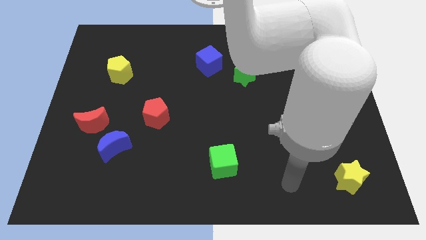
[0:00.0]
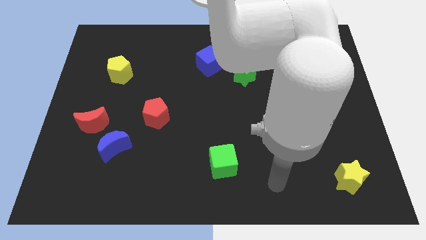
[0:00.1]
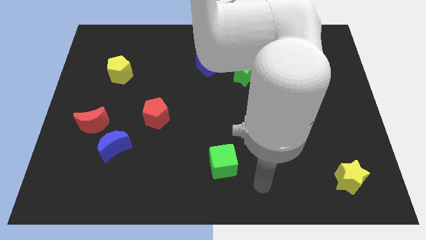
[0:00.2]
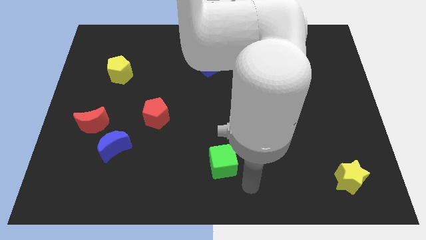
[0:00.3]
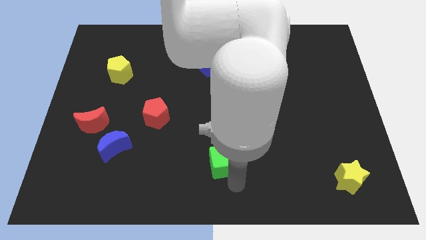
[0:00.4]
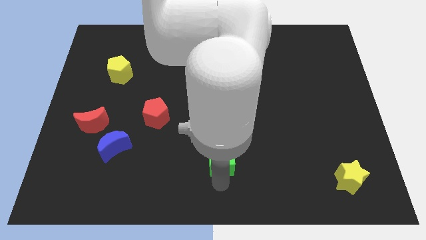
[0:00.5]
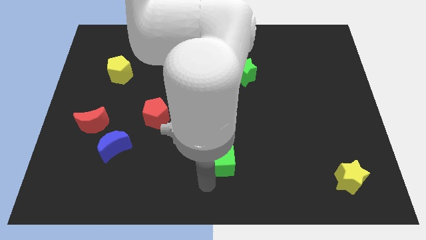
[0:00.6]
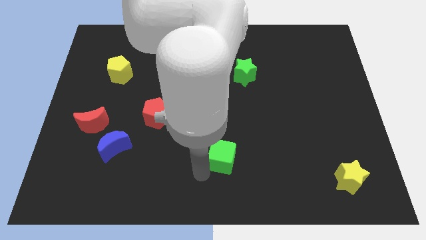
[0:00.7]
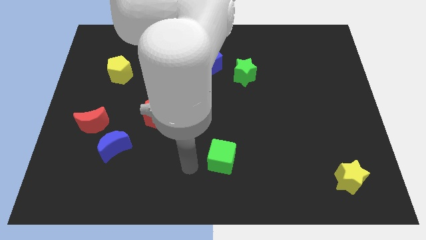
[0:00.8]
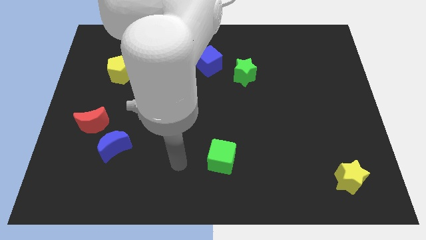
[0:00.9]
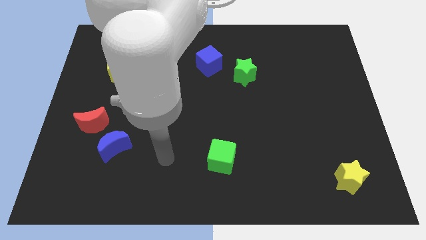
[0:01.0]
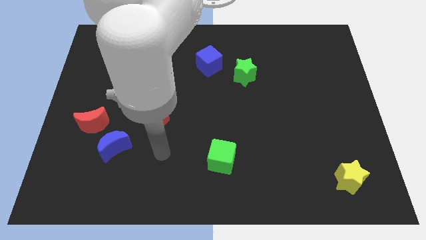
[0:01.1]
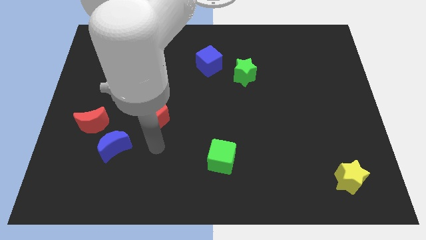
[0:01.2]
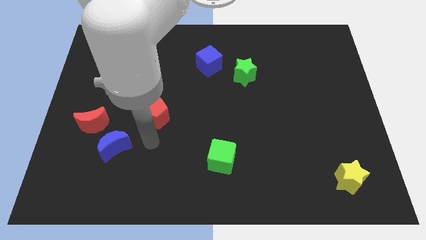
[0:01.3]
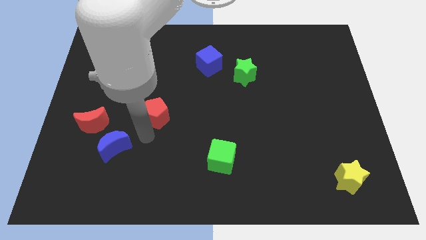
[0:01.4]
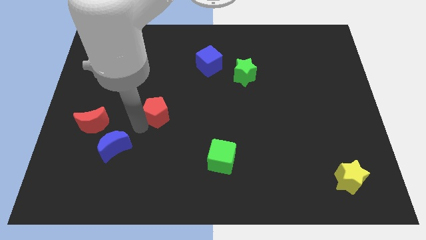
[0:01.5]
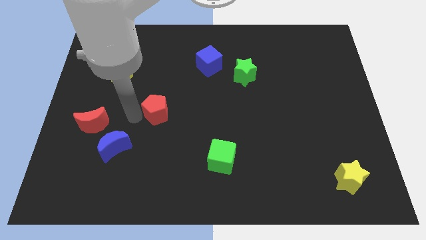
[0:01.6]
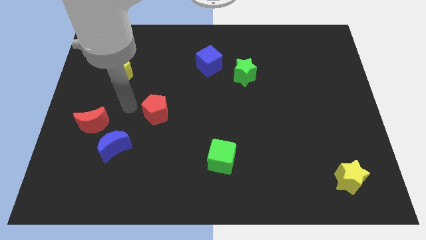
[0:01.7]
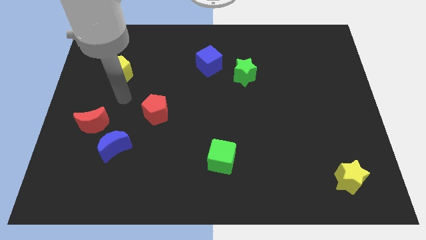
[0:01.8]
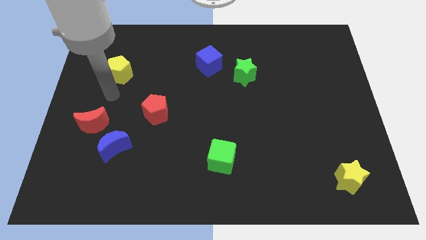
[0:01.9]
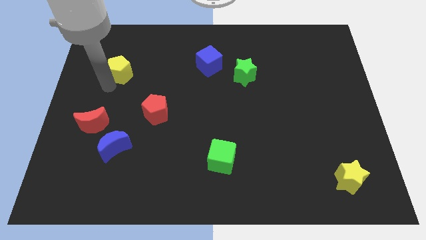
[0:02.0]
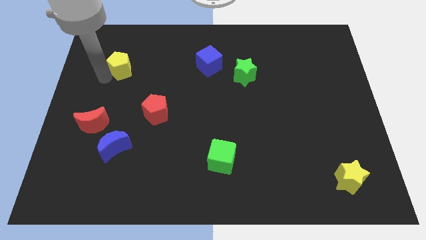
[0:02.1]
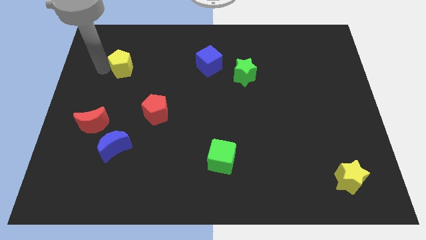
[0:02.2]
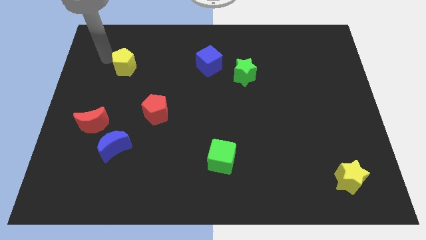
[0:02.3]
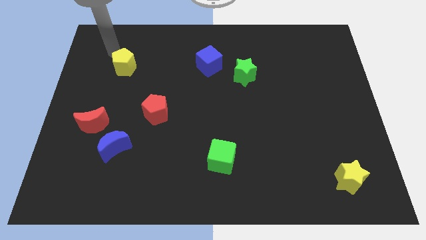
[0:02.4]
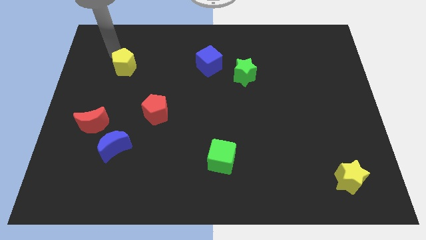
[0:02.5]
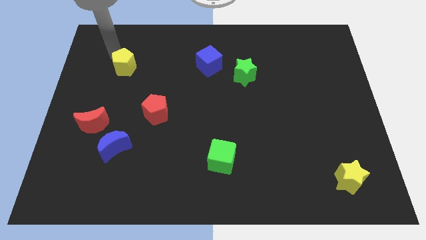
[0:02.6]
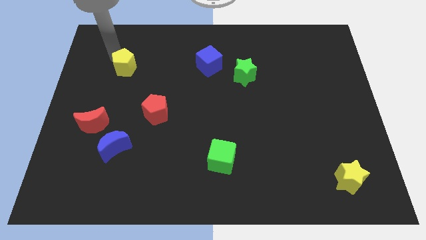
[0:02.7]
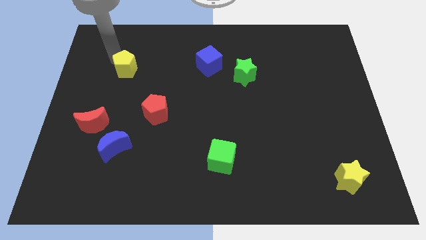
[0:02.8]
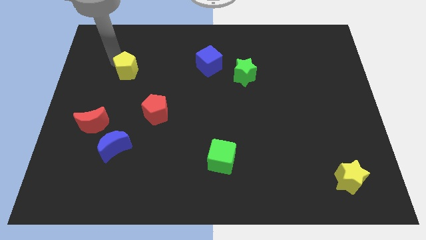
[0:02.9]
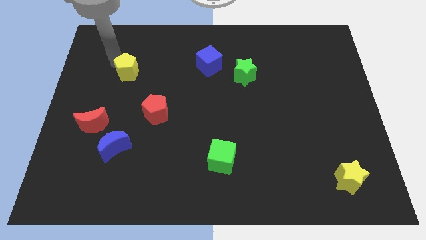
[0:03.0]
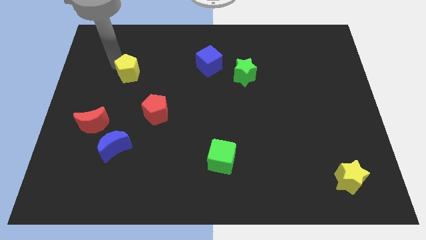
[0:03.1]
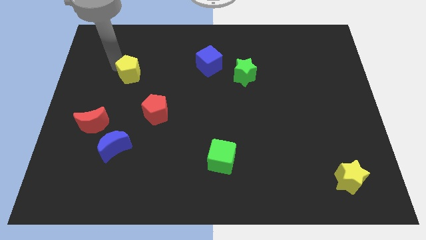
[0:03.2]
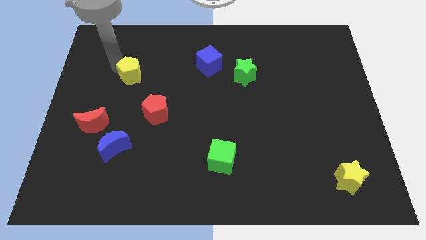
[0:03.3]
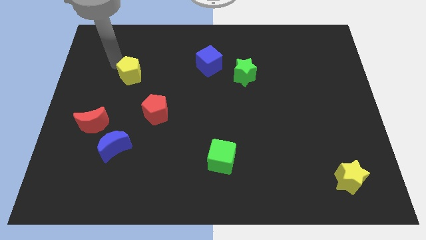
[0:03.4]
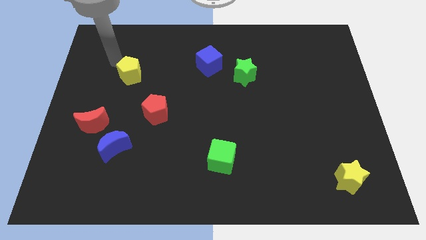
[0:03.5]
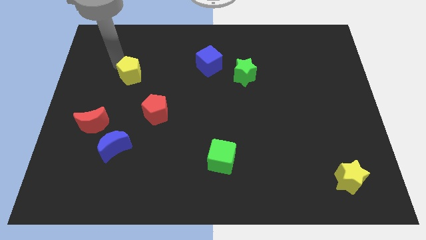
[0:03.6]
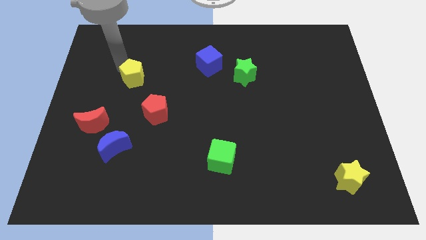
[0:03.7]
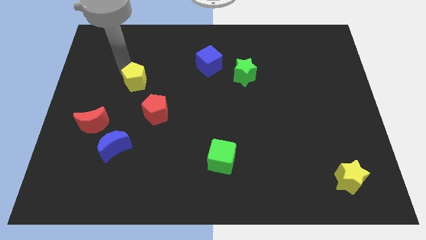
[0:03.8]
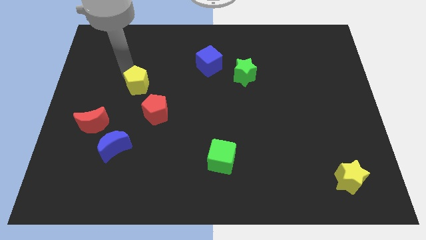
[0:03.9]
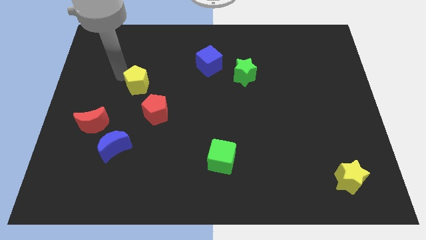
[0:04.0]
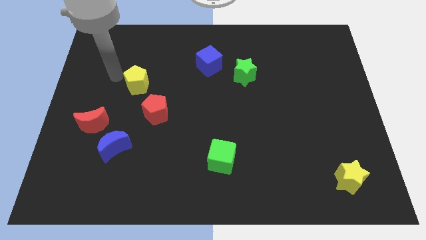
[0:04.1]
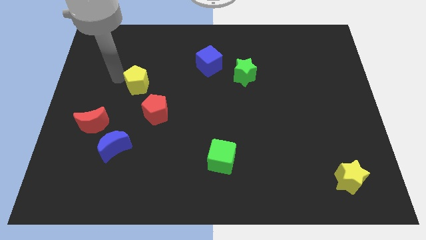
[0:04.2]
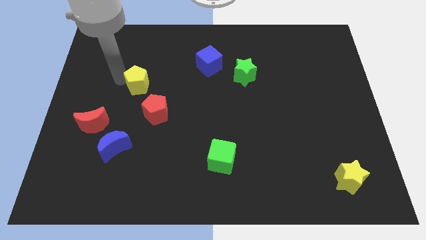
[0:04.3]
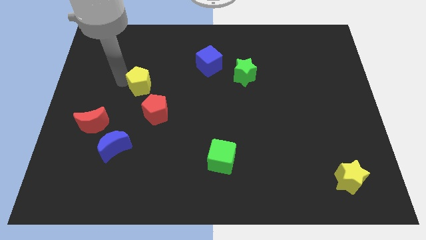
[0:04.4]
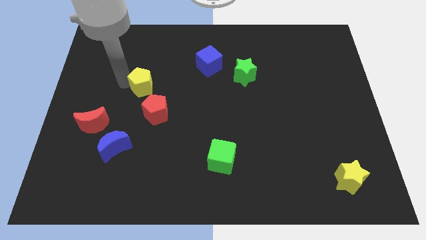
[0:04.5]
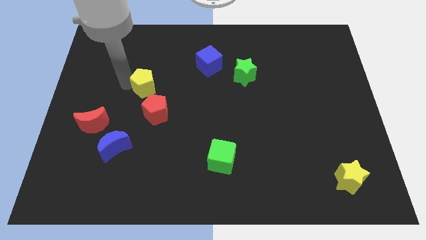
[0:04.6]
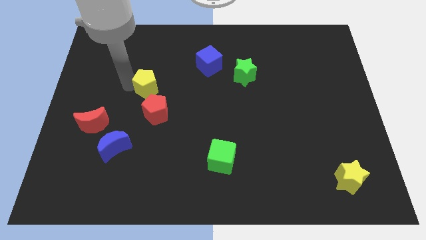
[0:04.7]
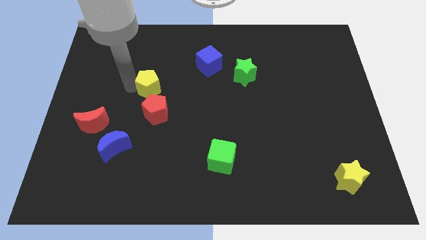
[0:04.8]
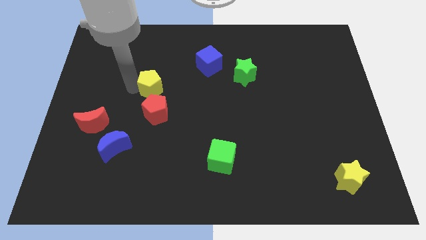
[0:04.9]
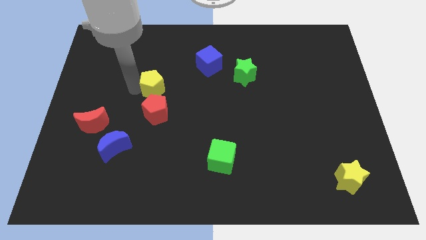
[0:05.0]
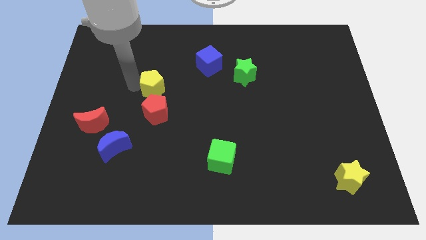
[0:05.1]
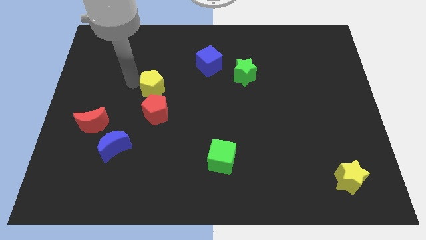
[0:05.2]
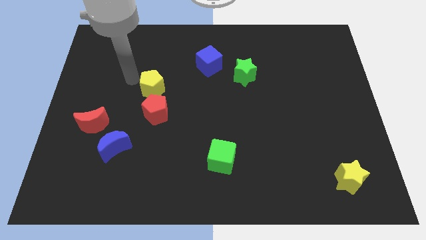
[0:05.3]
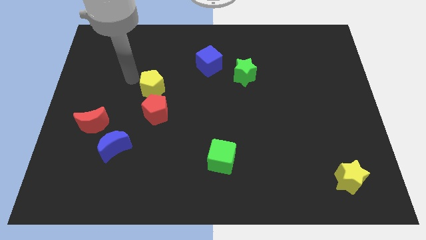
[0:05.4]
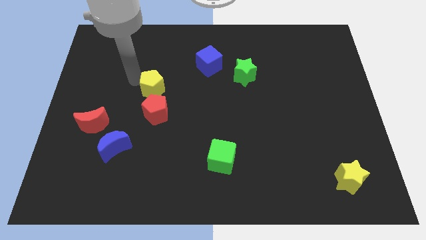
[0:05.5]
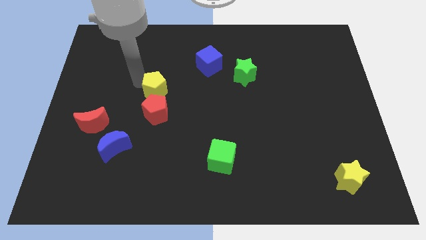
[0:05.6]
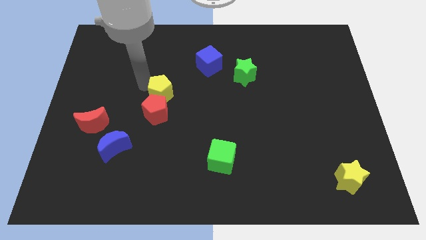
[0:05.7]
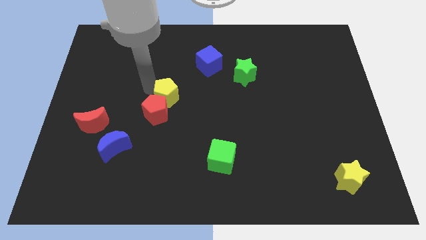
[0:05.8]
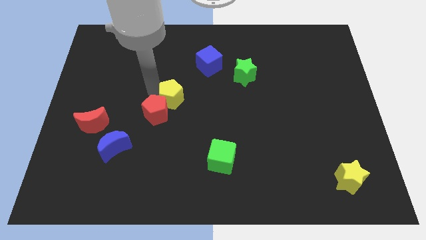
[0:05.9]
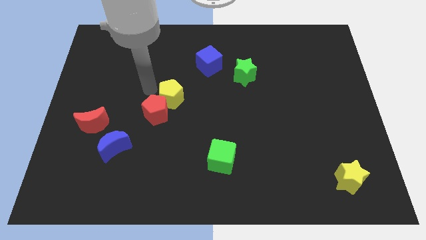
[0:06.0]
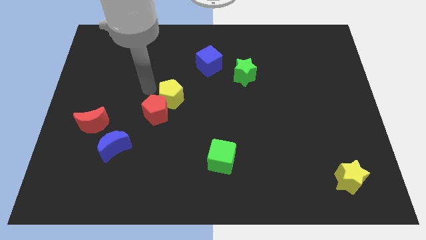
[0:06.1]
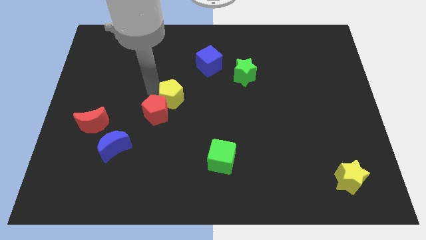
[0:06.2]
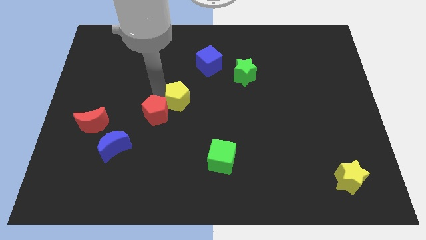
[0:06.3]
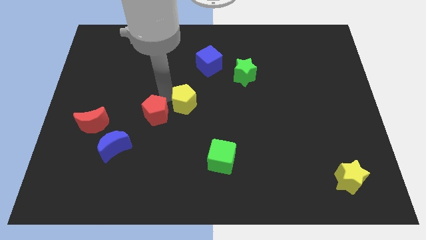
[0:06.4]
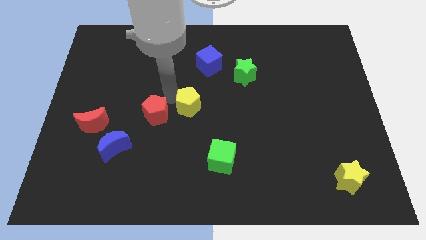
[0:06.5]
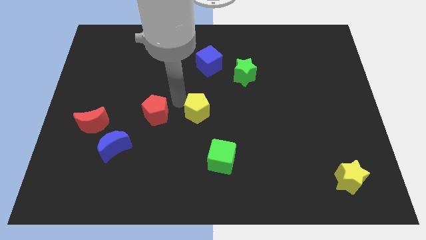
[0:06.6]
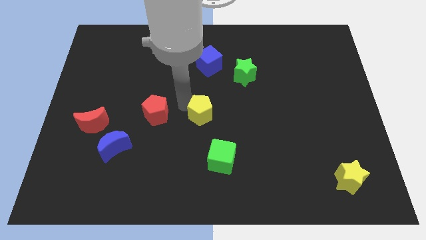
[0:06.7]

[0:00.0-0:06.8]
put the yellow pentagon to the top side of the green cube
